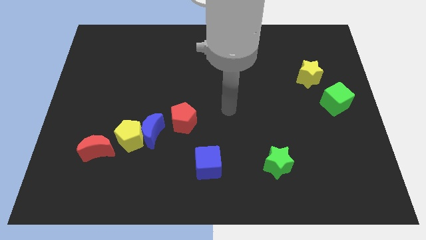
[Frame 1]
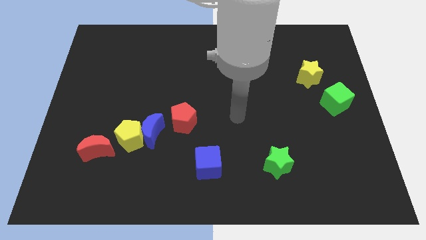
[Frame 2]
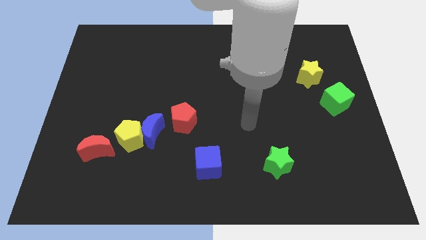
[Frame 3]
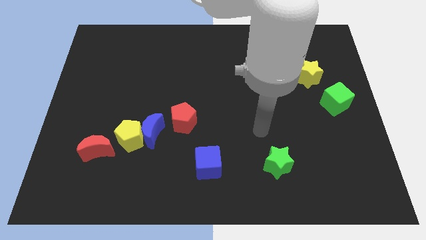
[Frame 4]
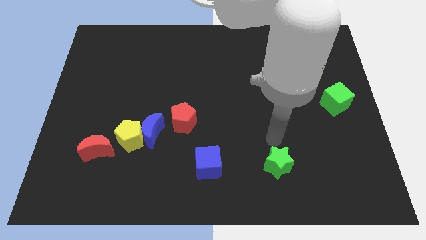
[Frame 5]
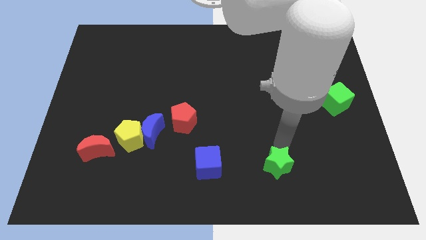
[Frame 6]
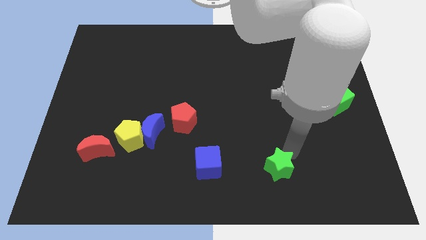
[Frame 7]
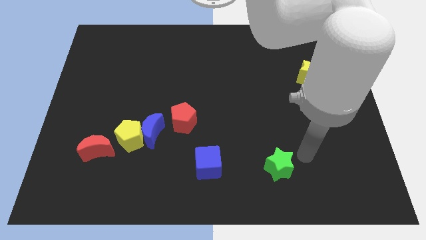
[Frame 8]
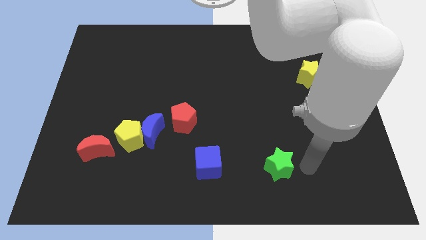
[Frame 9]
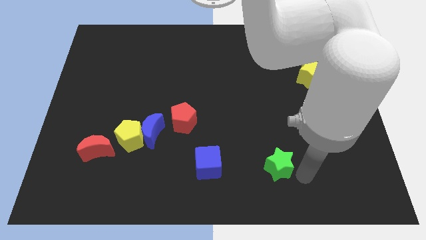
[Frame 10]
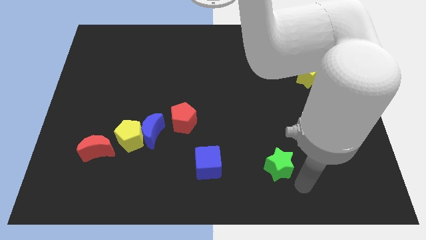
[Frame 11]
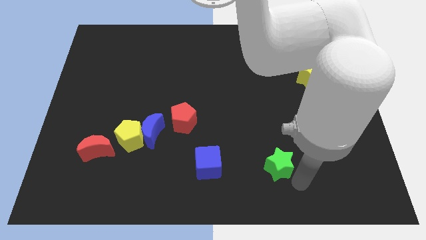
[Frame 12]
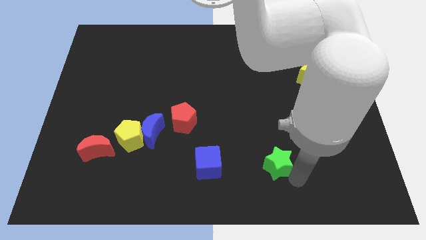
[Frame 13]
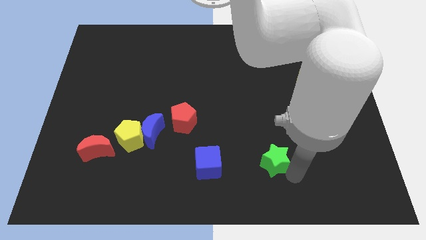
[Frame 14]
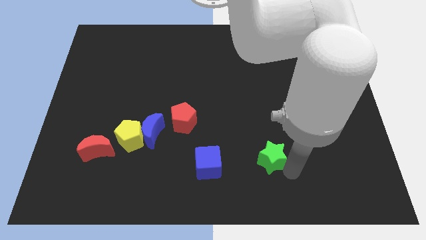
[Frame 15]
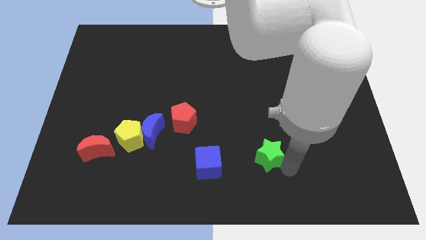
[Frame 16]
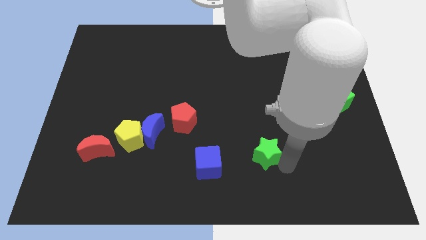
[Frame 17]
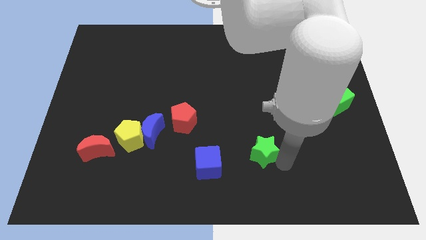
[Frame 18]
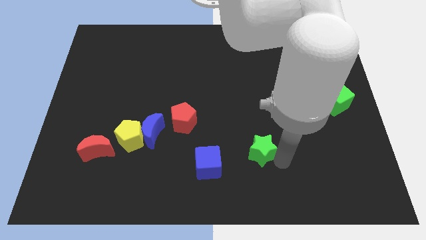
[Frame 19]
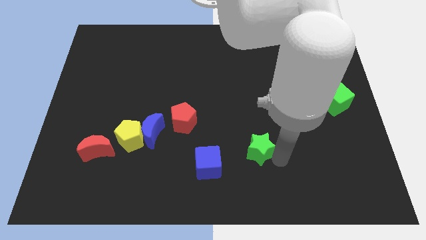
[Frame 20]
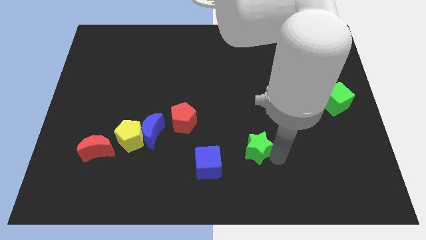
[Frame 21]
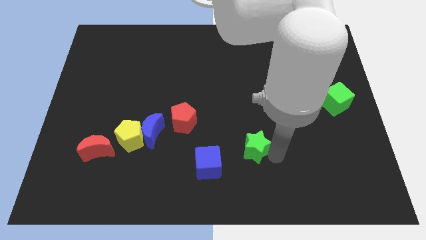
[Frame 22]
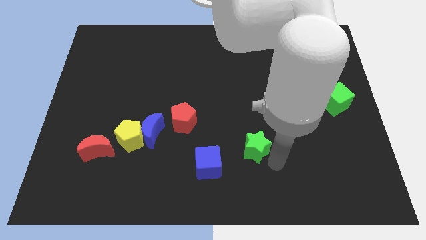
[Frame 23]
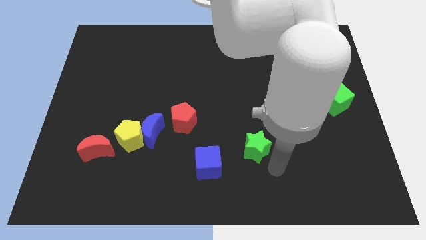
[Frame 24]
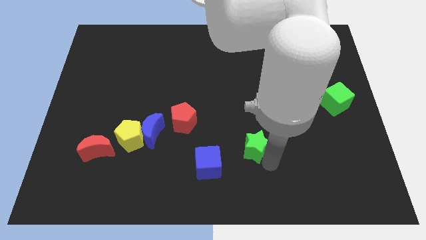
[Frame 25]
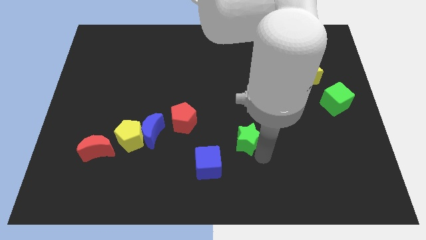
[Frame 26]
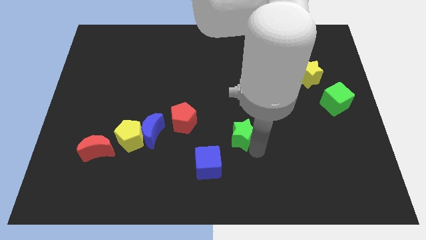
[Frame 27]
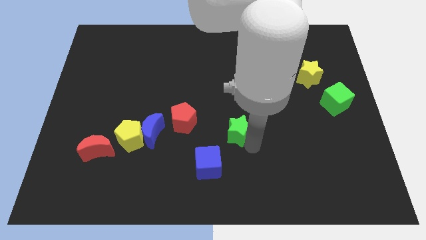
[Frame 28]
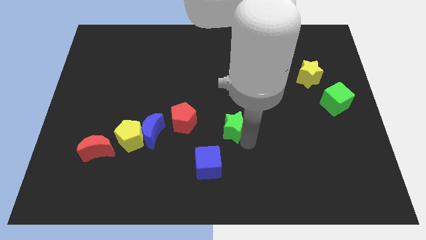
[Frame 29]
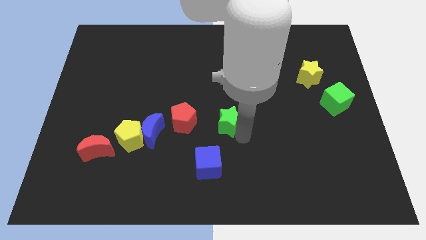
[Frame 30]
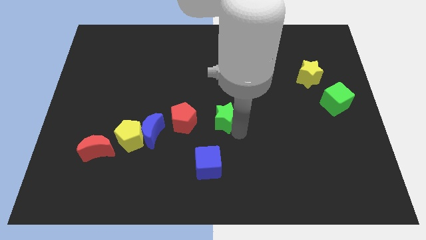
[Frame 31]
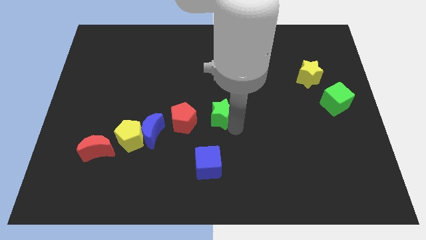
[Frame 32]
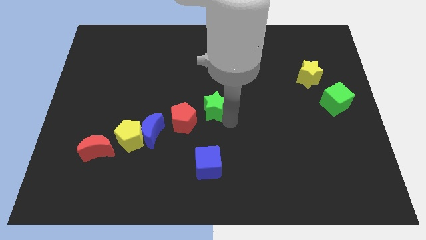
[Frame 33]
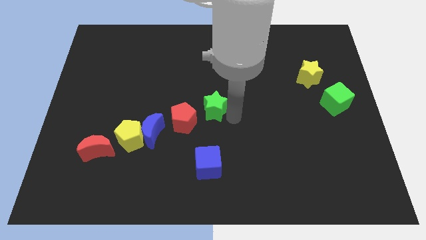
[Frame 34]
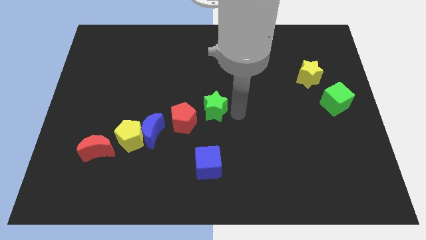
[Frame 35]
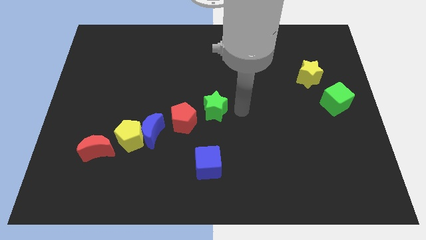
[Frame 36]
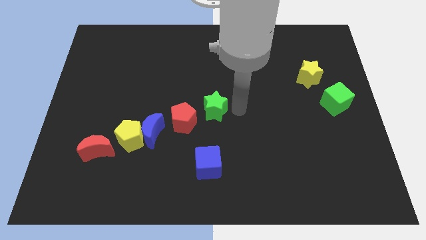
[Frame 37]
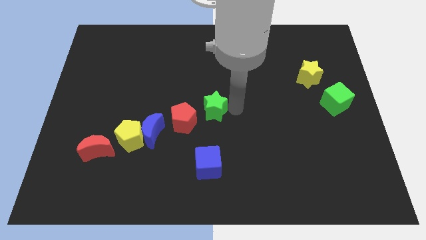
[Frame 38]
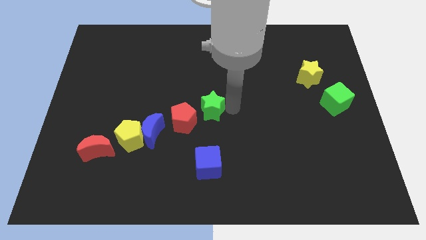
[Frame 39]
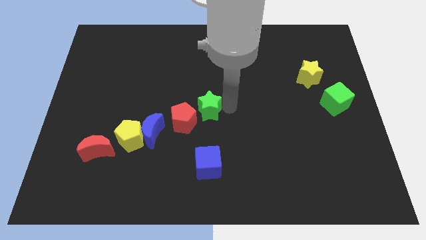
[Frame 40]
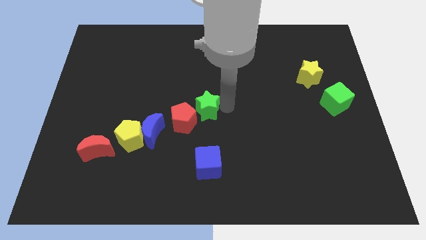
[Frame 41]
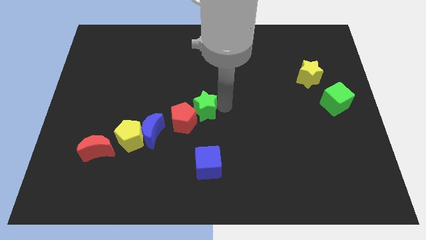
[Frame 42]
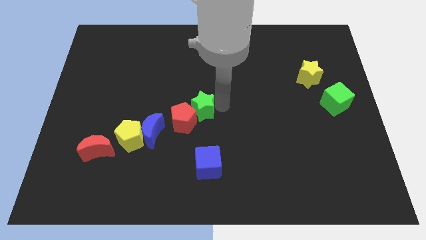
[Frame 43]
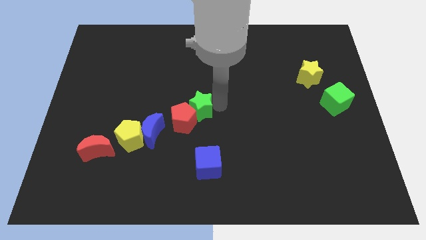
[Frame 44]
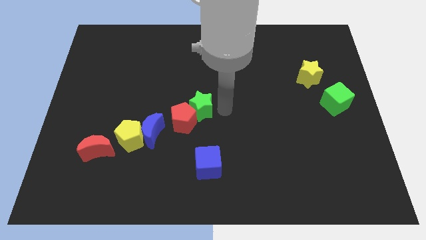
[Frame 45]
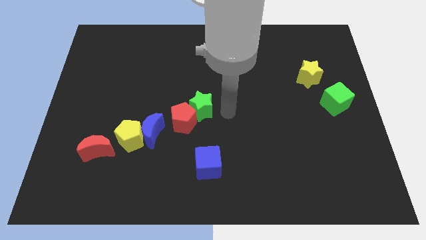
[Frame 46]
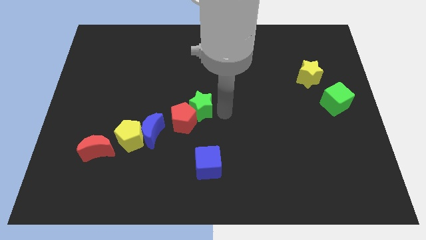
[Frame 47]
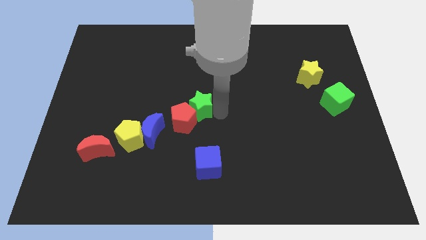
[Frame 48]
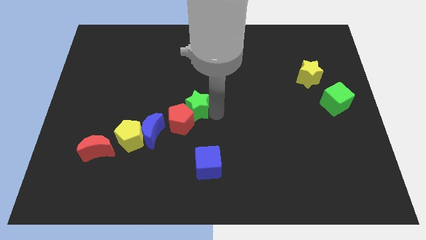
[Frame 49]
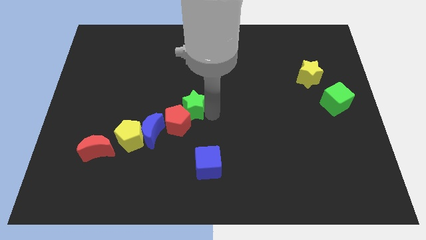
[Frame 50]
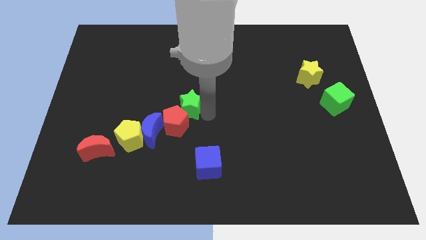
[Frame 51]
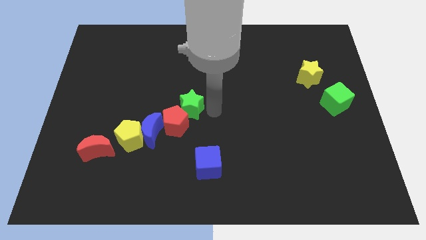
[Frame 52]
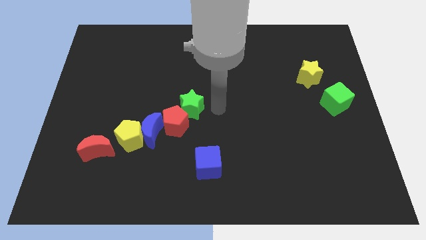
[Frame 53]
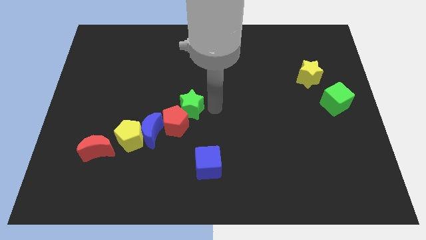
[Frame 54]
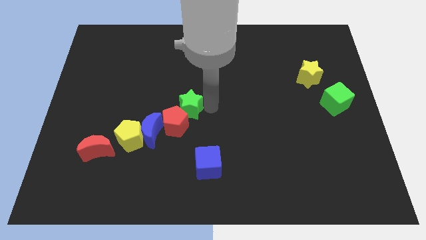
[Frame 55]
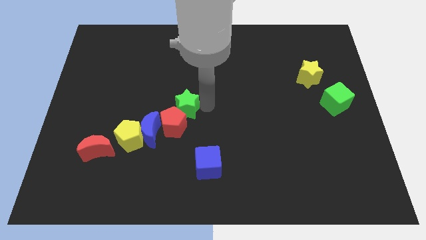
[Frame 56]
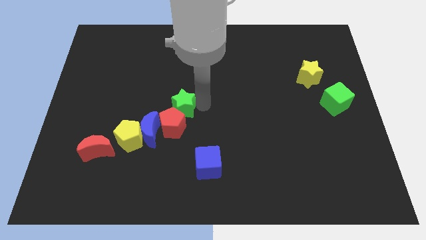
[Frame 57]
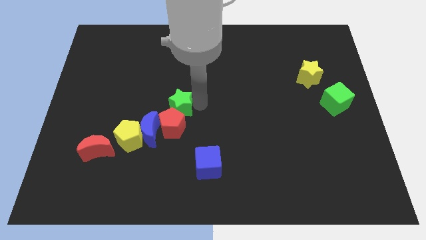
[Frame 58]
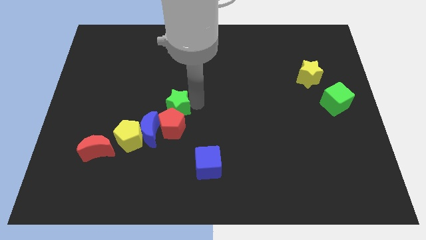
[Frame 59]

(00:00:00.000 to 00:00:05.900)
put the green star to the top left side of the red pentagon

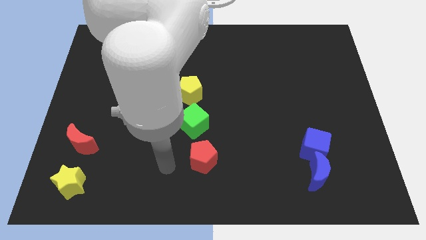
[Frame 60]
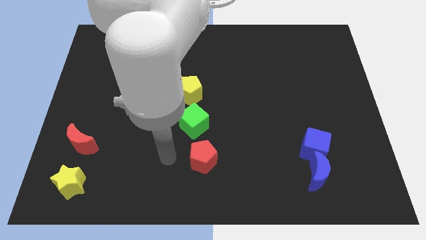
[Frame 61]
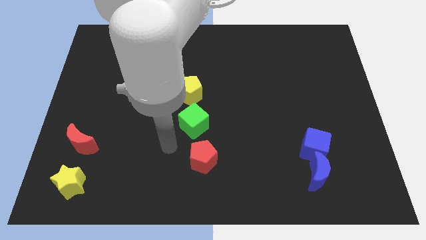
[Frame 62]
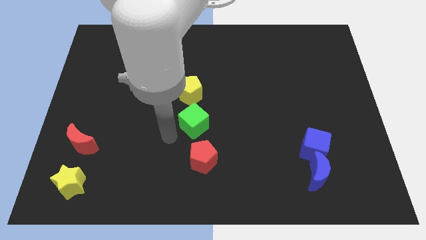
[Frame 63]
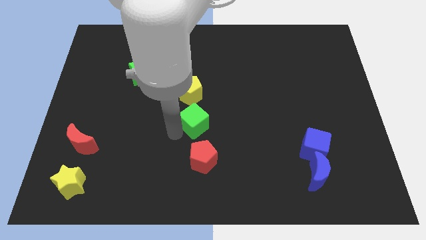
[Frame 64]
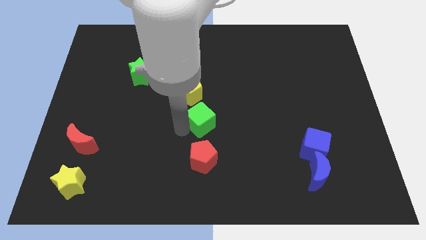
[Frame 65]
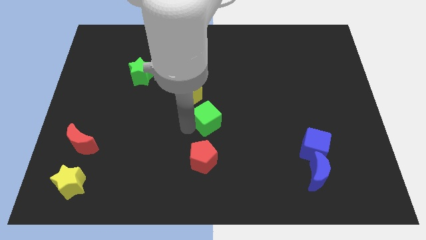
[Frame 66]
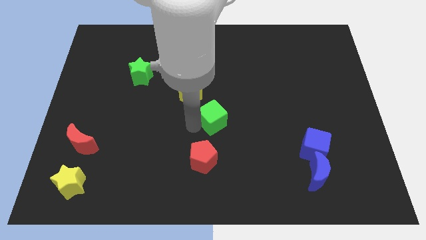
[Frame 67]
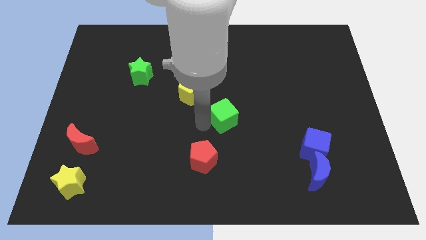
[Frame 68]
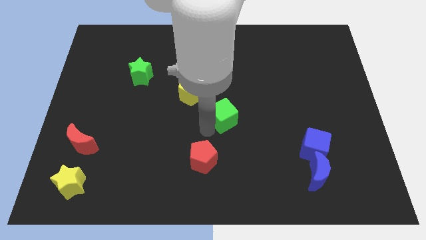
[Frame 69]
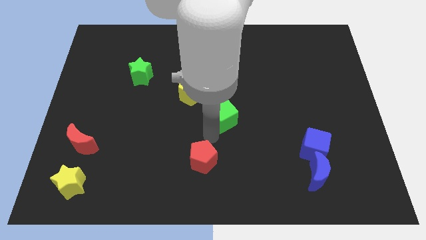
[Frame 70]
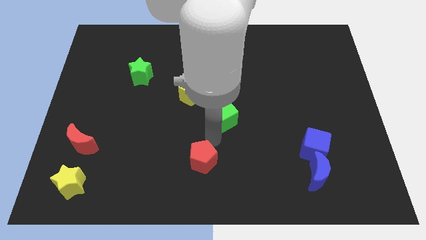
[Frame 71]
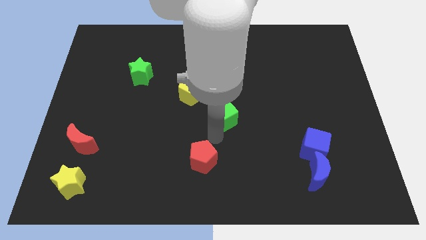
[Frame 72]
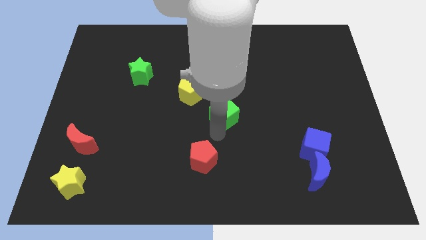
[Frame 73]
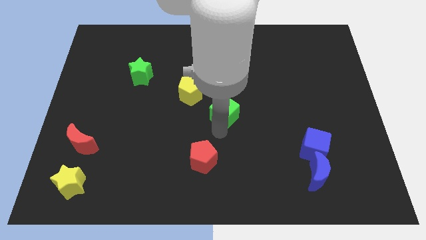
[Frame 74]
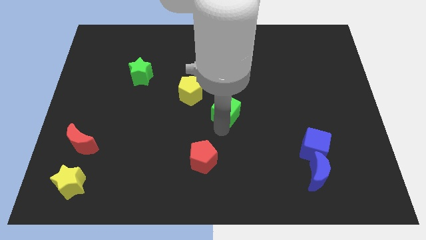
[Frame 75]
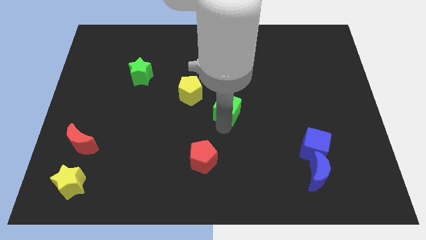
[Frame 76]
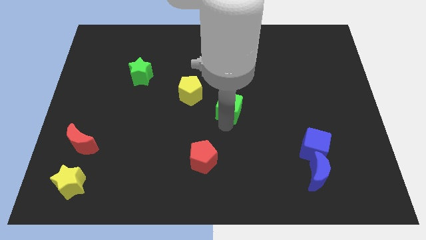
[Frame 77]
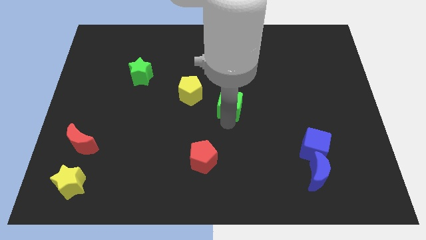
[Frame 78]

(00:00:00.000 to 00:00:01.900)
move the green cube to the right side of the yellow pentagon
